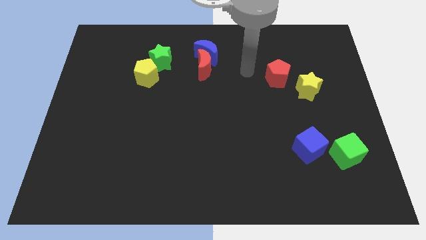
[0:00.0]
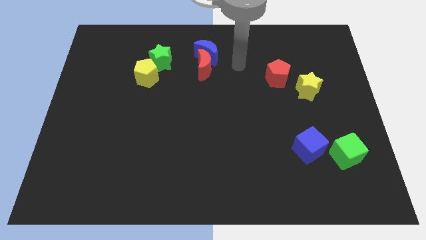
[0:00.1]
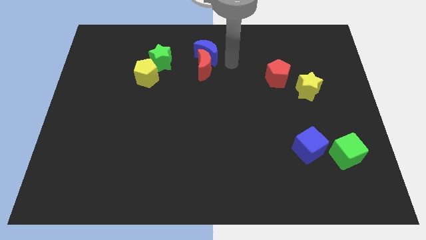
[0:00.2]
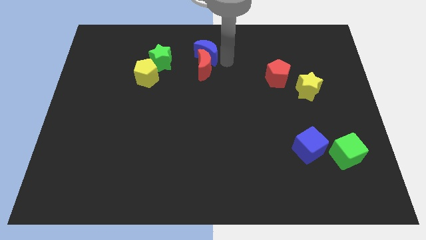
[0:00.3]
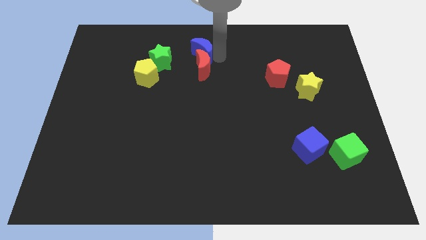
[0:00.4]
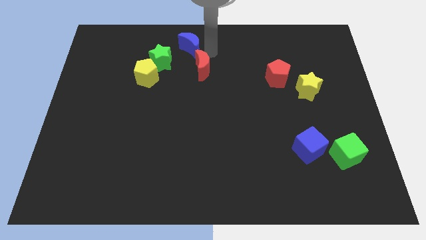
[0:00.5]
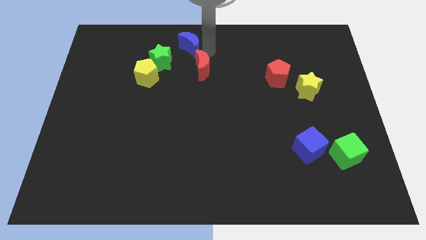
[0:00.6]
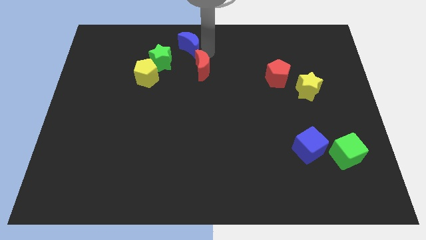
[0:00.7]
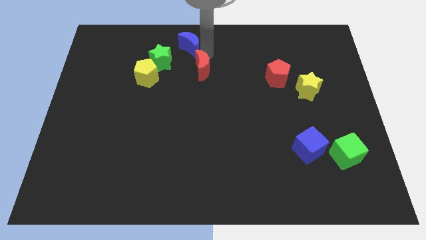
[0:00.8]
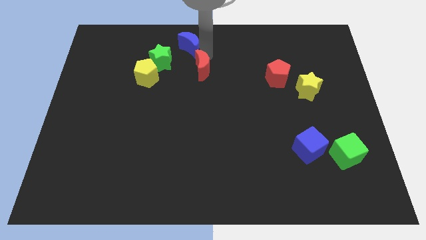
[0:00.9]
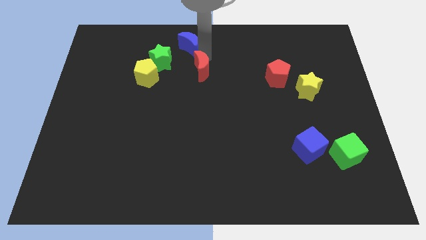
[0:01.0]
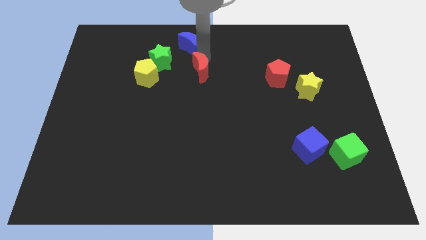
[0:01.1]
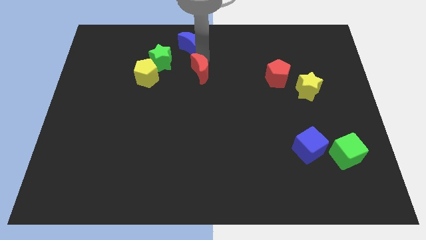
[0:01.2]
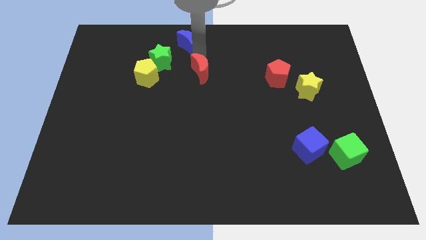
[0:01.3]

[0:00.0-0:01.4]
separate the red moon from the blue moon

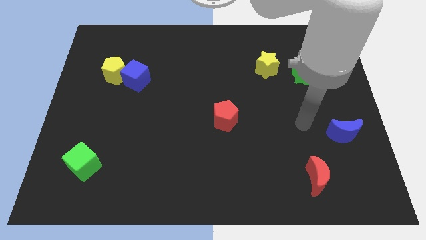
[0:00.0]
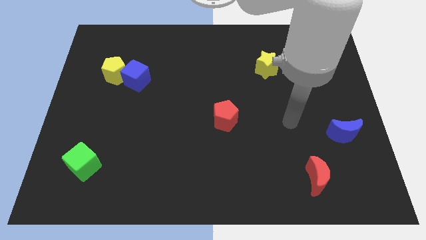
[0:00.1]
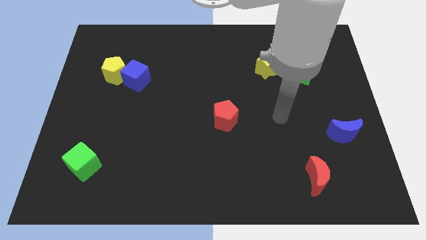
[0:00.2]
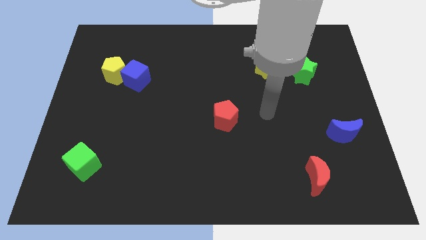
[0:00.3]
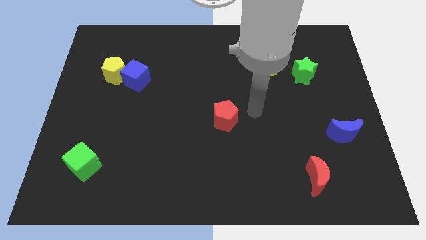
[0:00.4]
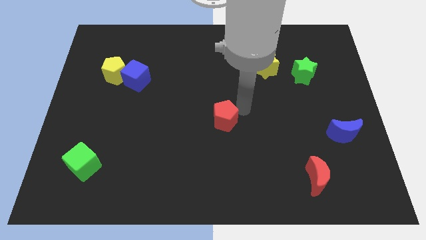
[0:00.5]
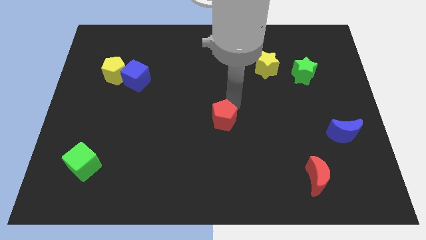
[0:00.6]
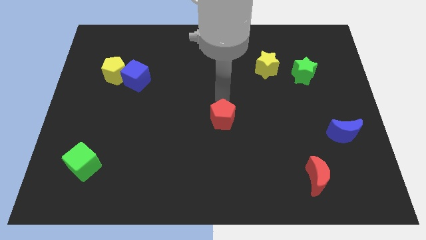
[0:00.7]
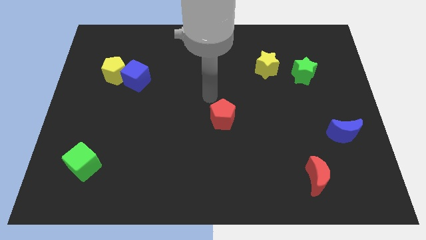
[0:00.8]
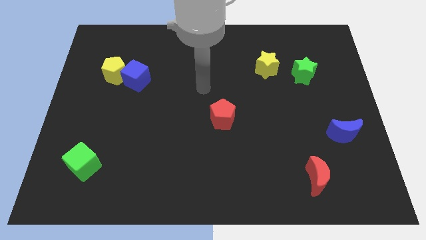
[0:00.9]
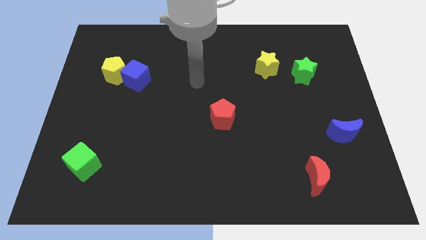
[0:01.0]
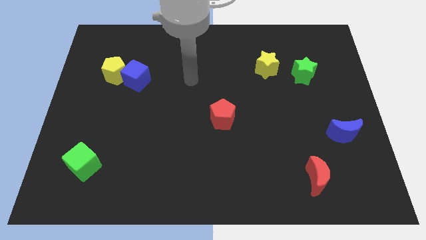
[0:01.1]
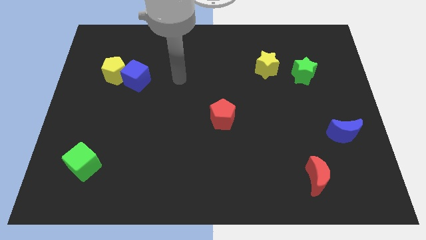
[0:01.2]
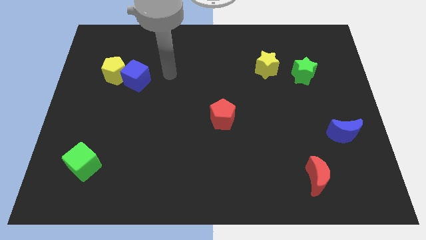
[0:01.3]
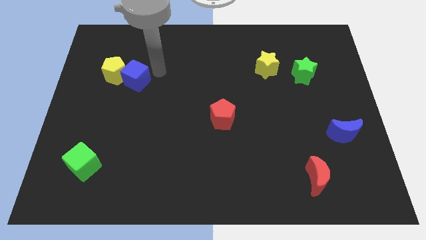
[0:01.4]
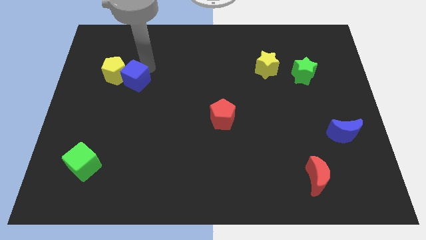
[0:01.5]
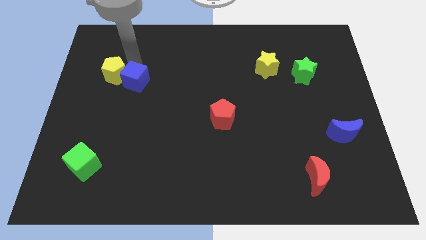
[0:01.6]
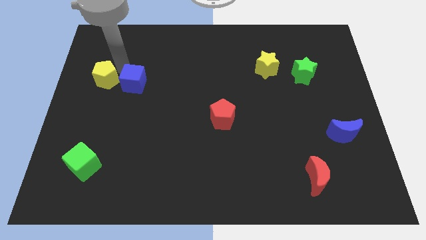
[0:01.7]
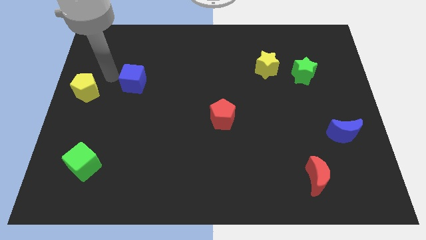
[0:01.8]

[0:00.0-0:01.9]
move the blue cube away from the yellow pentagon

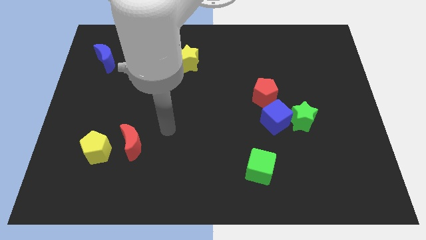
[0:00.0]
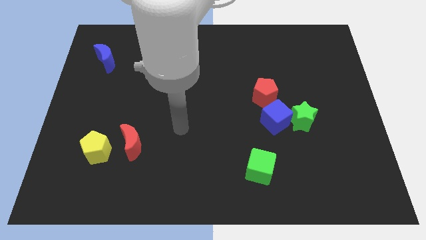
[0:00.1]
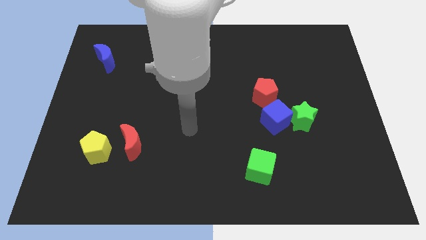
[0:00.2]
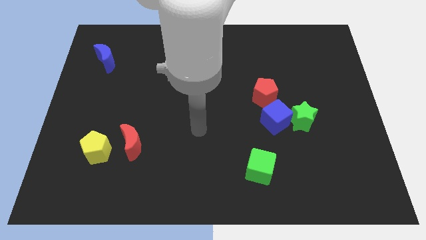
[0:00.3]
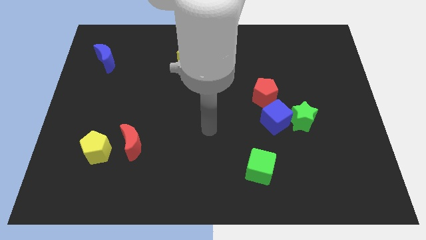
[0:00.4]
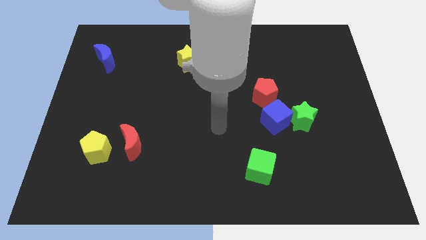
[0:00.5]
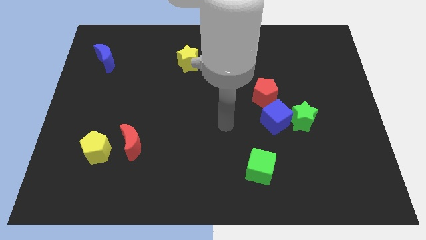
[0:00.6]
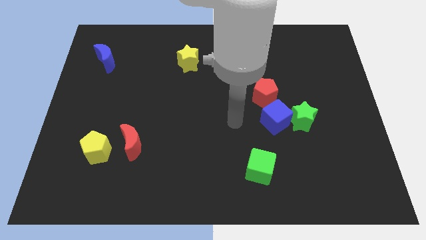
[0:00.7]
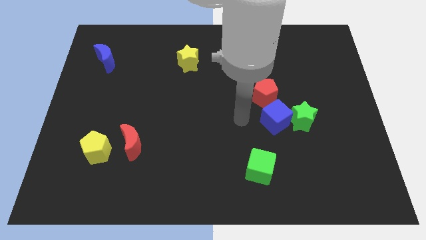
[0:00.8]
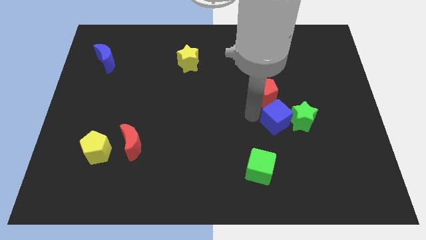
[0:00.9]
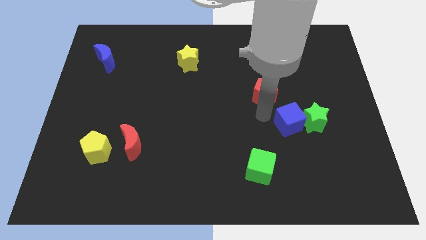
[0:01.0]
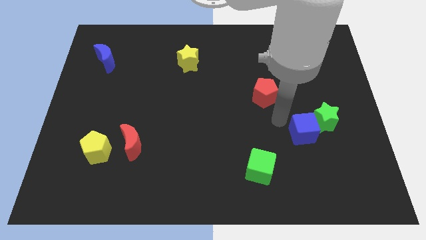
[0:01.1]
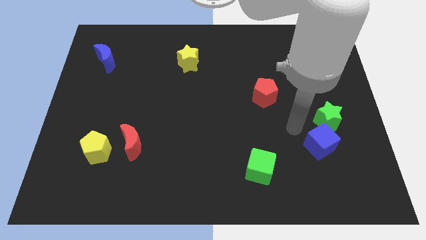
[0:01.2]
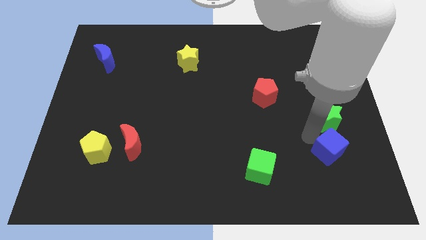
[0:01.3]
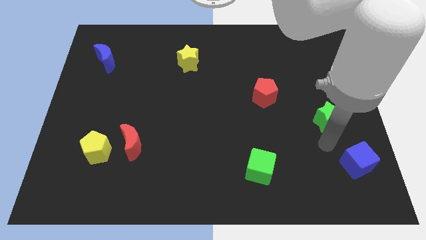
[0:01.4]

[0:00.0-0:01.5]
move the green star away from the blue cube

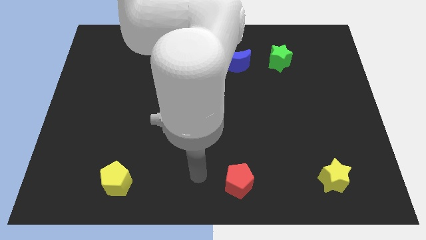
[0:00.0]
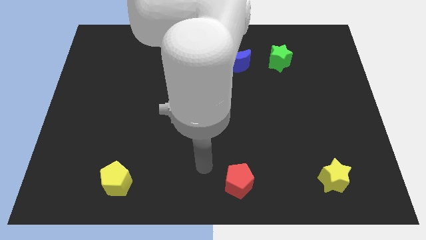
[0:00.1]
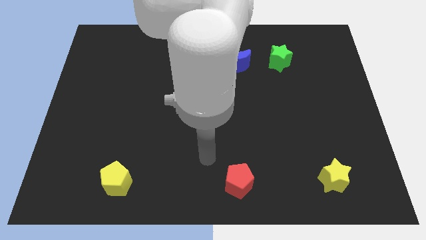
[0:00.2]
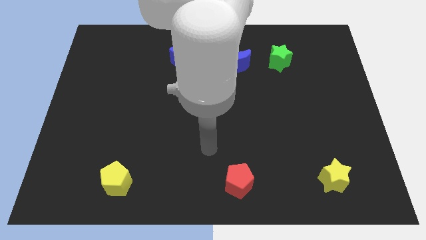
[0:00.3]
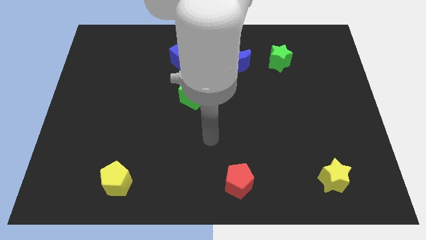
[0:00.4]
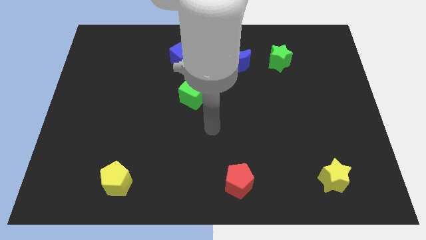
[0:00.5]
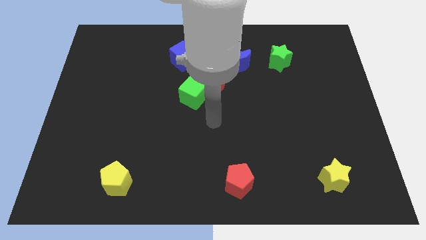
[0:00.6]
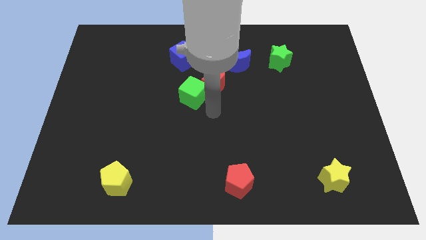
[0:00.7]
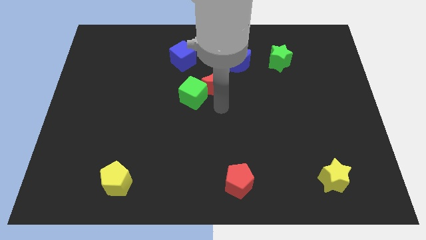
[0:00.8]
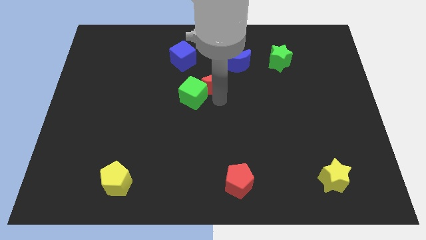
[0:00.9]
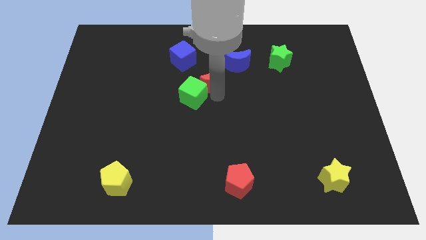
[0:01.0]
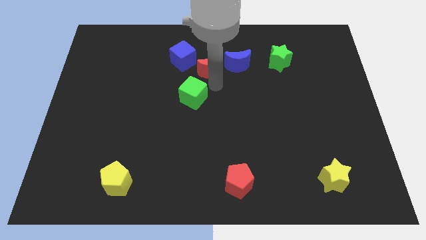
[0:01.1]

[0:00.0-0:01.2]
move the green cube away from the red moon

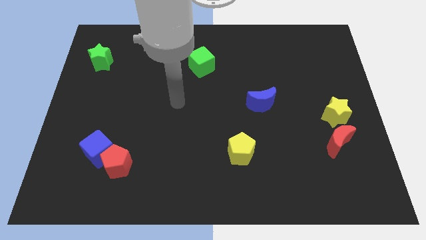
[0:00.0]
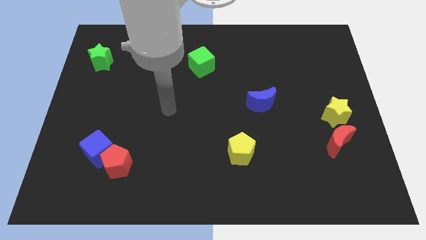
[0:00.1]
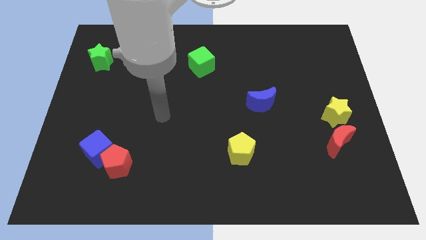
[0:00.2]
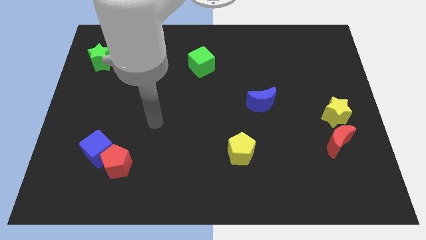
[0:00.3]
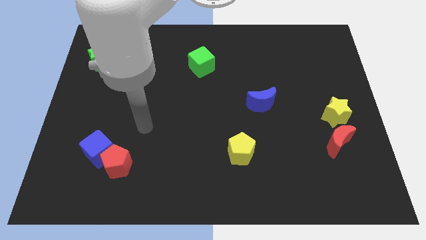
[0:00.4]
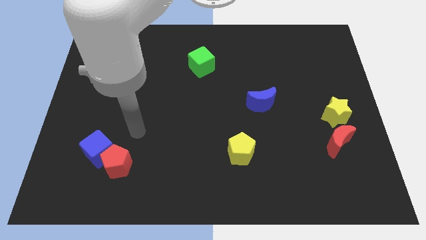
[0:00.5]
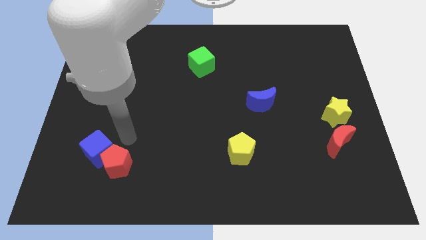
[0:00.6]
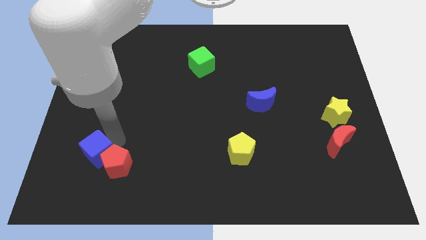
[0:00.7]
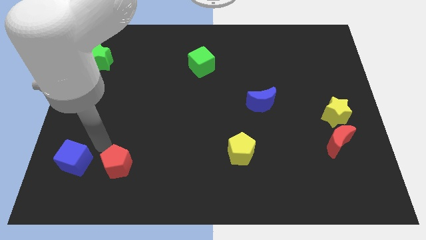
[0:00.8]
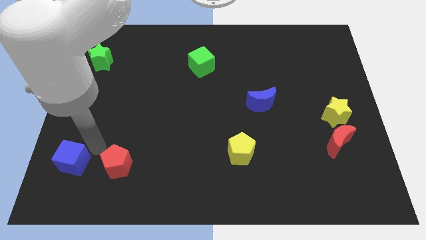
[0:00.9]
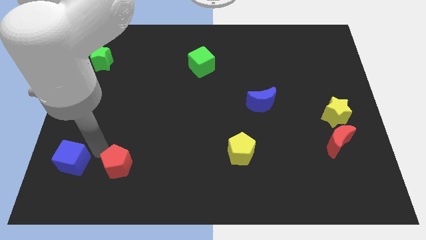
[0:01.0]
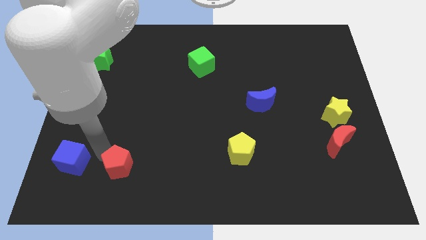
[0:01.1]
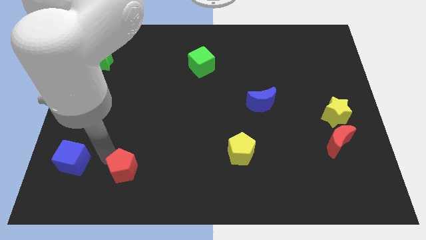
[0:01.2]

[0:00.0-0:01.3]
separate the red pentagon from the blue cube

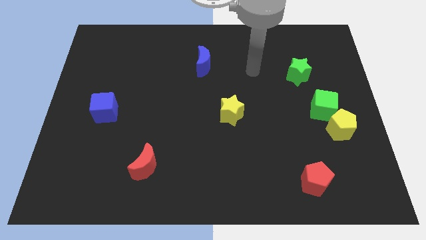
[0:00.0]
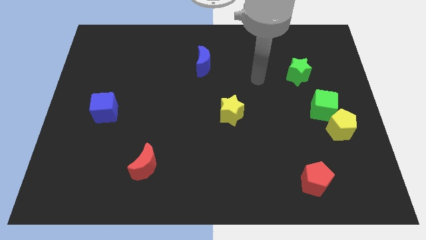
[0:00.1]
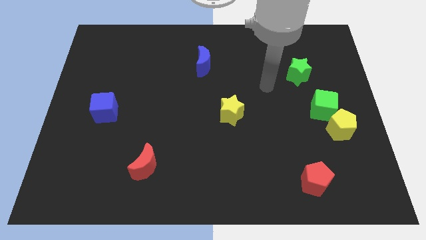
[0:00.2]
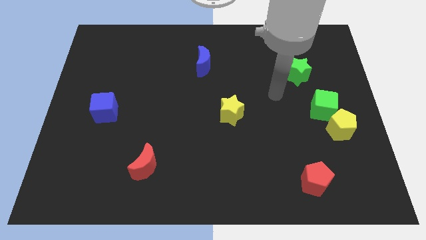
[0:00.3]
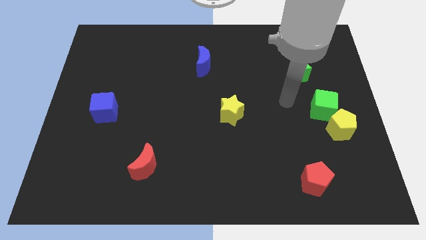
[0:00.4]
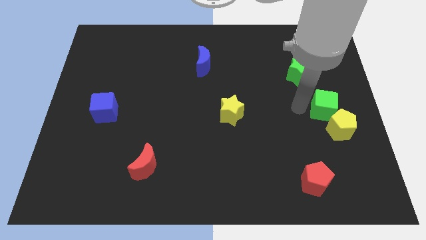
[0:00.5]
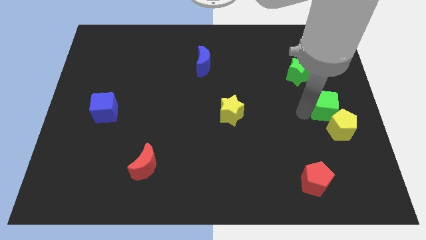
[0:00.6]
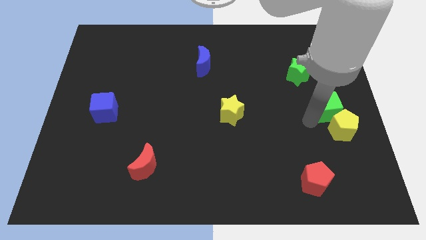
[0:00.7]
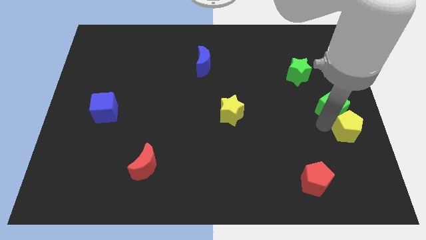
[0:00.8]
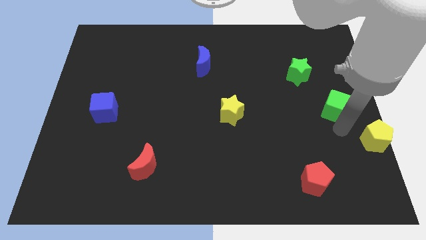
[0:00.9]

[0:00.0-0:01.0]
separate the green cube from the yellow pentagon

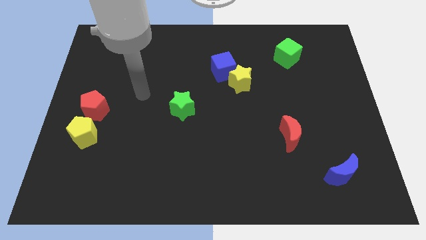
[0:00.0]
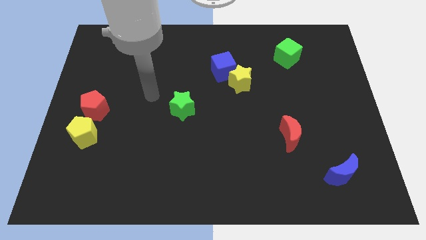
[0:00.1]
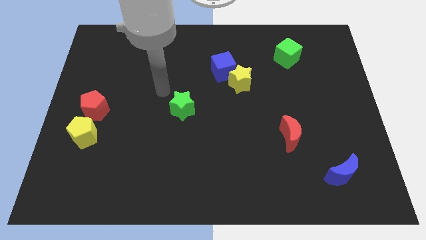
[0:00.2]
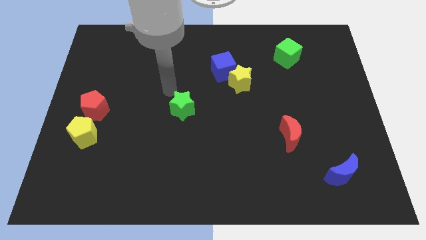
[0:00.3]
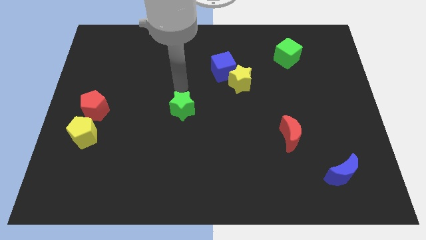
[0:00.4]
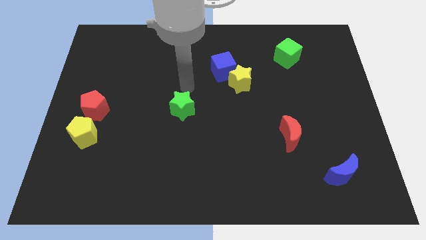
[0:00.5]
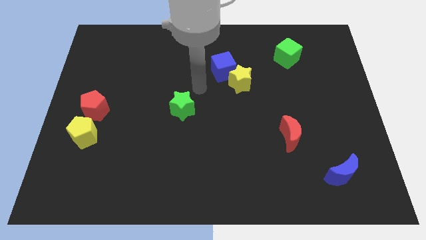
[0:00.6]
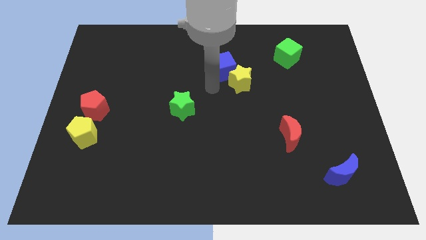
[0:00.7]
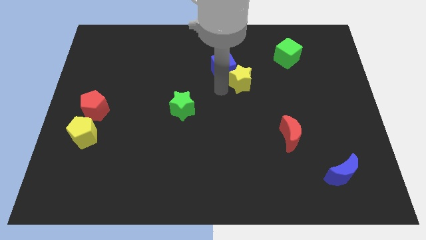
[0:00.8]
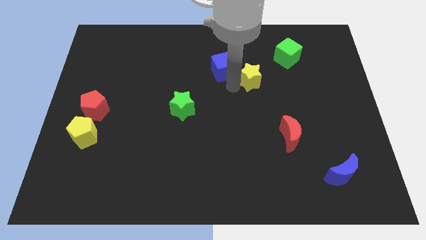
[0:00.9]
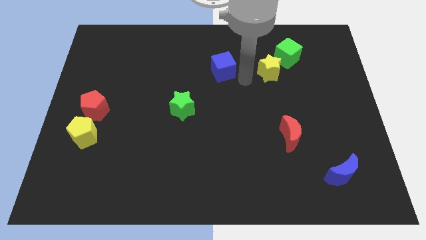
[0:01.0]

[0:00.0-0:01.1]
separate the blue cube from the yellow star
